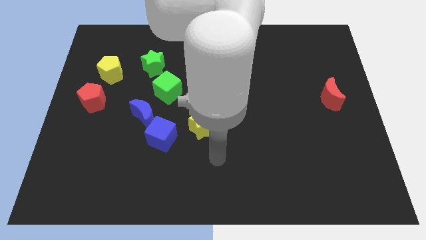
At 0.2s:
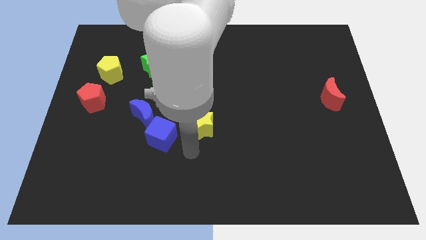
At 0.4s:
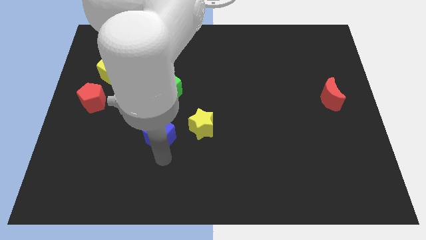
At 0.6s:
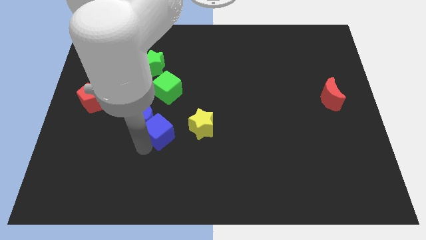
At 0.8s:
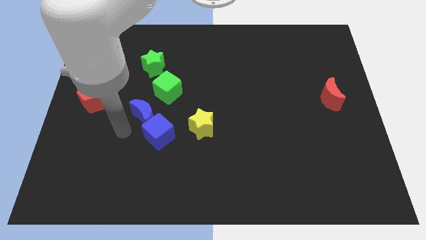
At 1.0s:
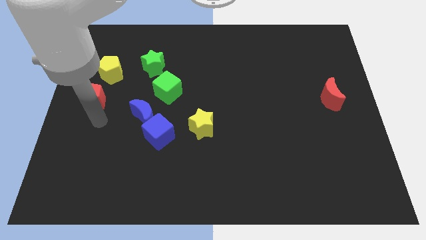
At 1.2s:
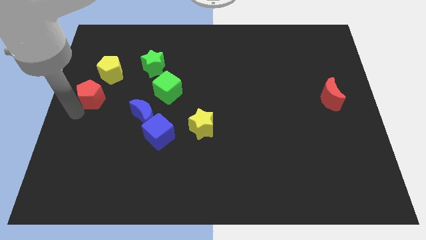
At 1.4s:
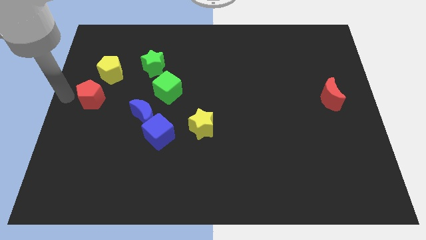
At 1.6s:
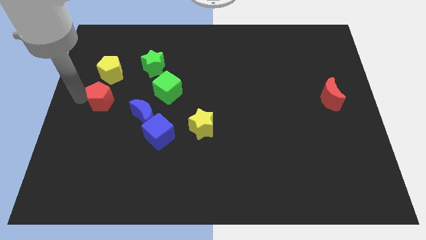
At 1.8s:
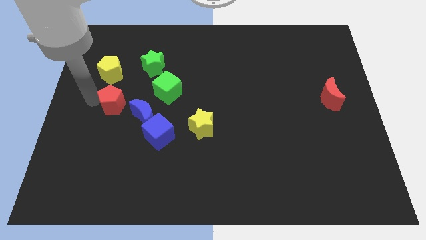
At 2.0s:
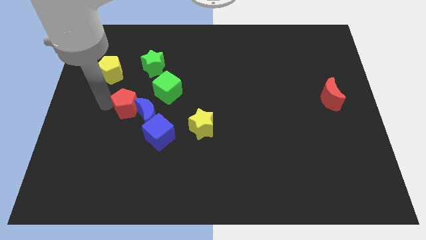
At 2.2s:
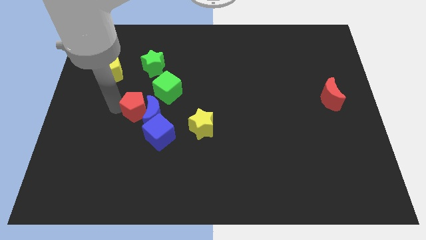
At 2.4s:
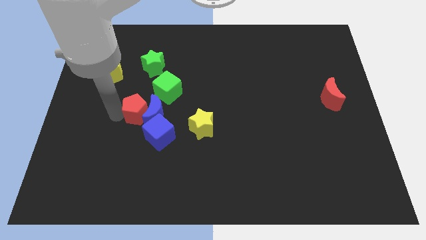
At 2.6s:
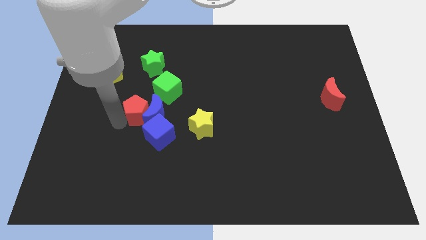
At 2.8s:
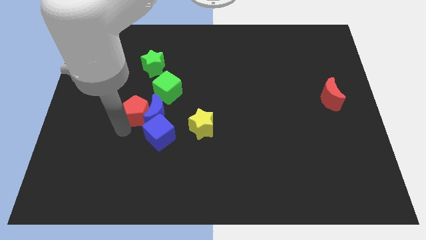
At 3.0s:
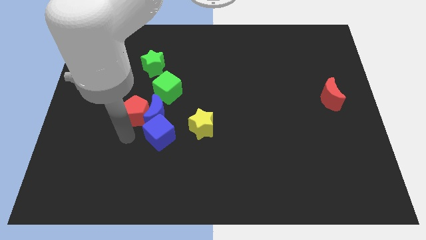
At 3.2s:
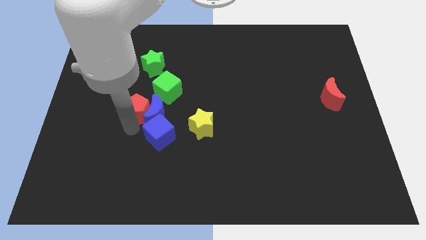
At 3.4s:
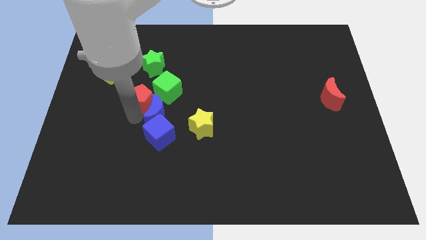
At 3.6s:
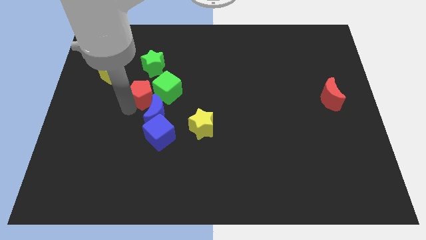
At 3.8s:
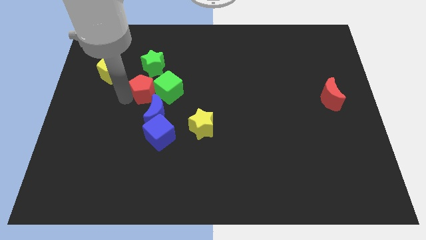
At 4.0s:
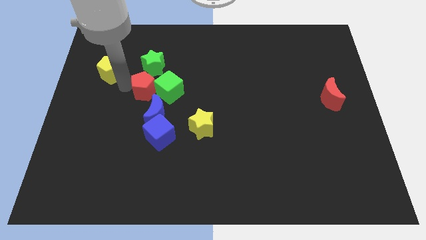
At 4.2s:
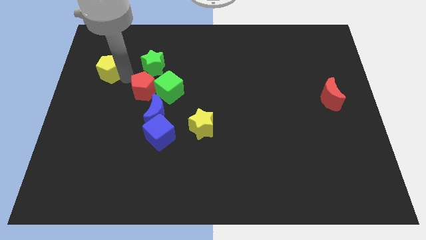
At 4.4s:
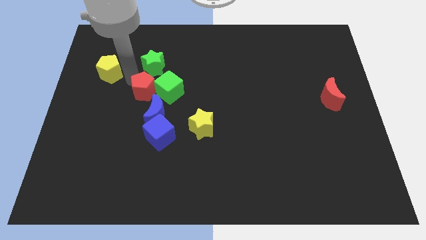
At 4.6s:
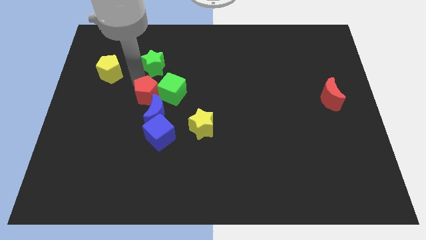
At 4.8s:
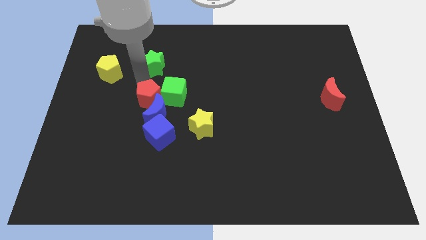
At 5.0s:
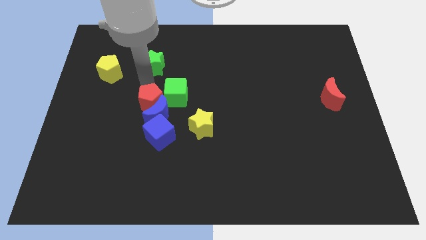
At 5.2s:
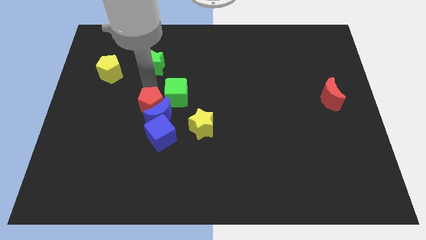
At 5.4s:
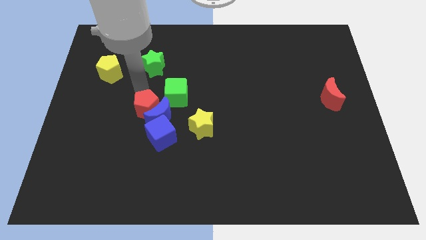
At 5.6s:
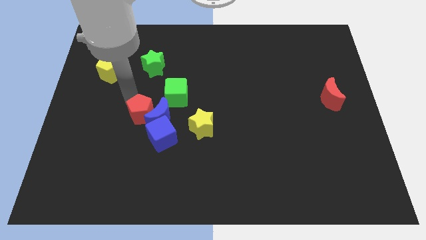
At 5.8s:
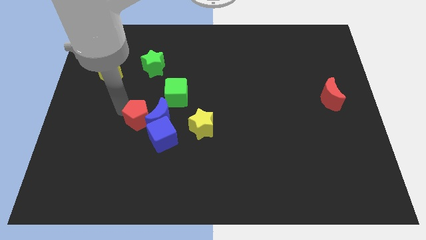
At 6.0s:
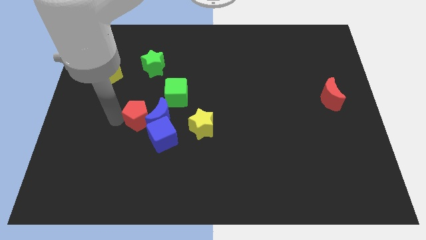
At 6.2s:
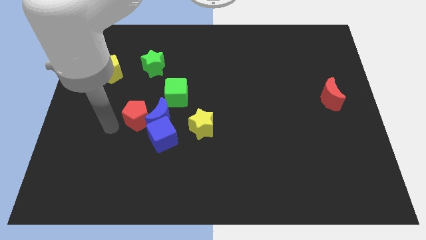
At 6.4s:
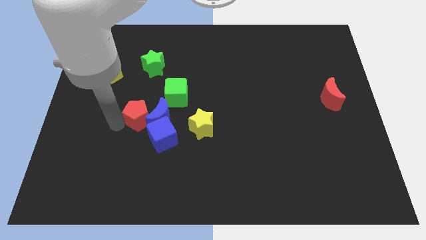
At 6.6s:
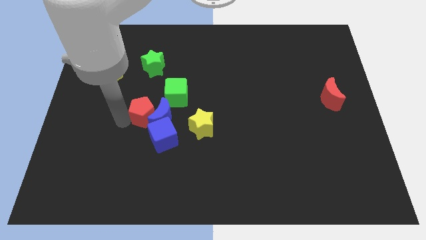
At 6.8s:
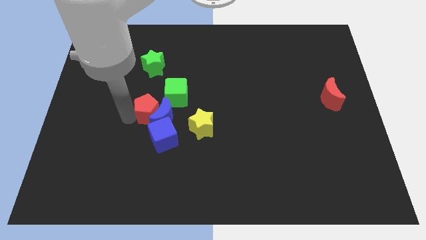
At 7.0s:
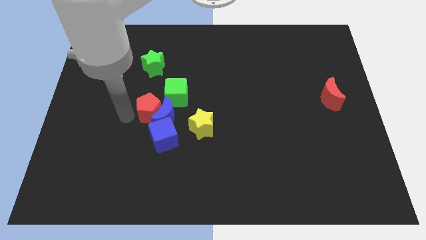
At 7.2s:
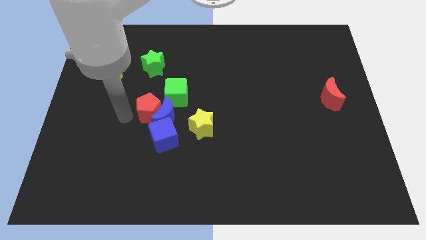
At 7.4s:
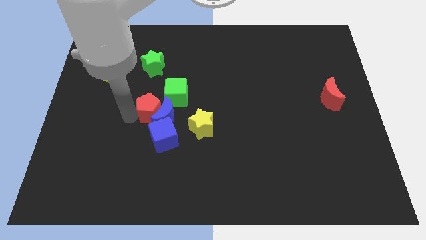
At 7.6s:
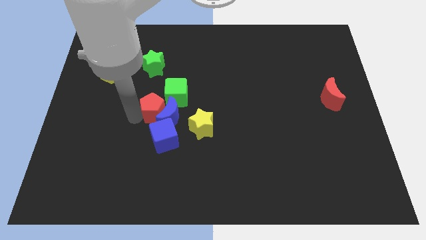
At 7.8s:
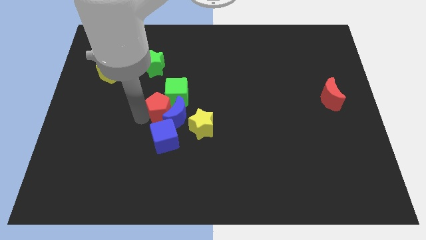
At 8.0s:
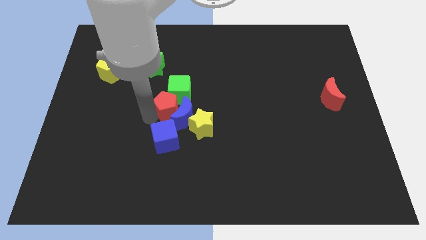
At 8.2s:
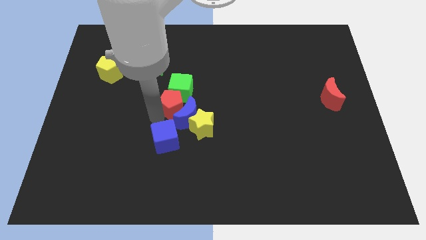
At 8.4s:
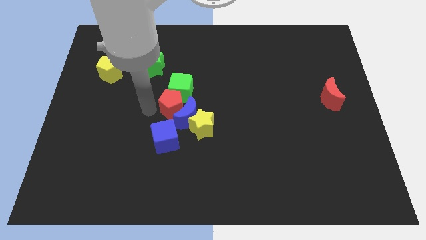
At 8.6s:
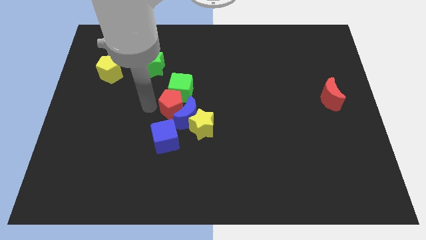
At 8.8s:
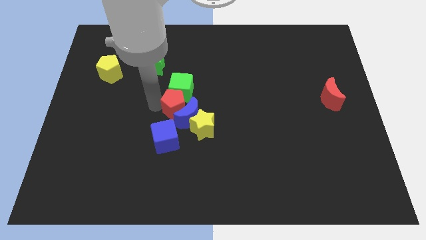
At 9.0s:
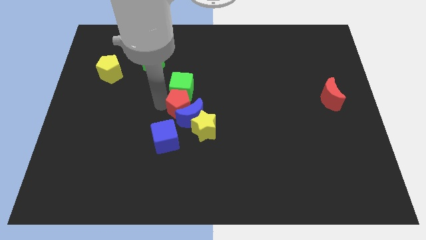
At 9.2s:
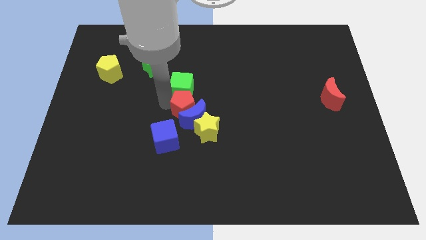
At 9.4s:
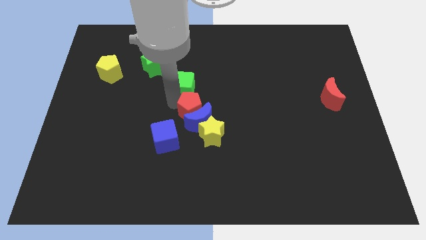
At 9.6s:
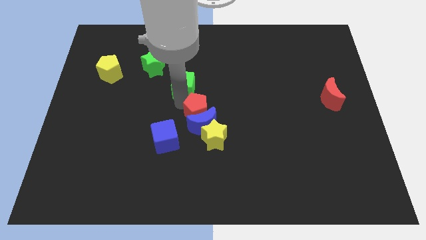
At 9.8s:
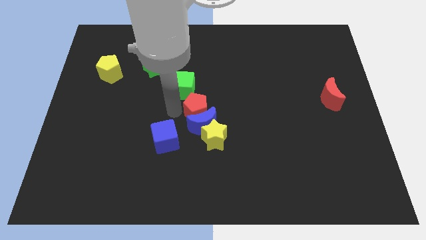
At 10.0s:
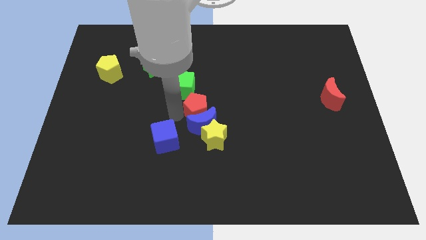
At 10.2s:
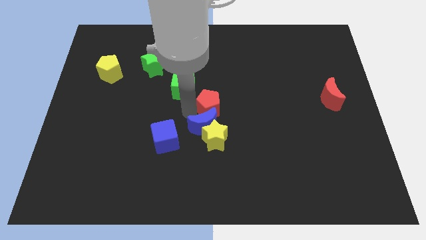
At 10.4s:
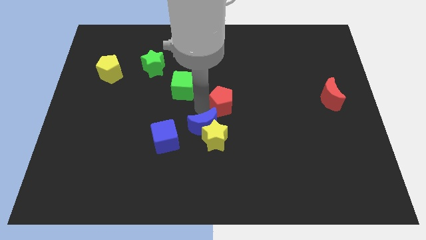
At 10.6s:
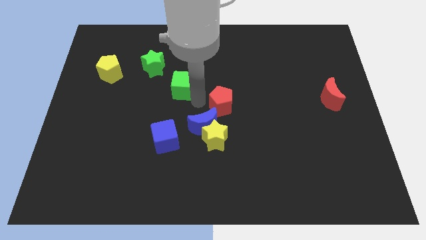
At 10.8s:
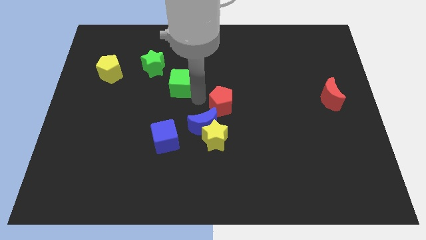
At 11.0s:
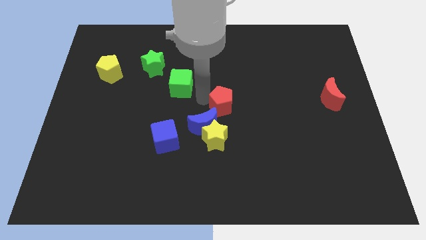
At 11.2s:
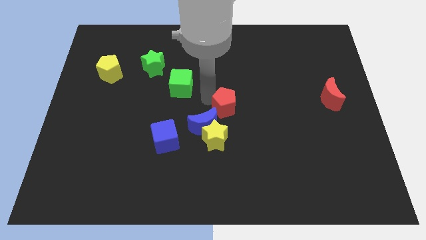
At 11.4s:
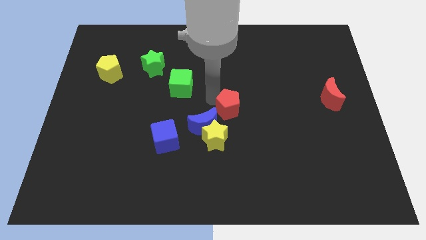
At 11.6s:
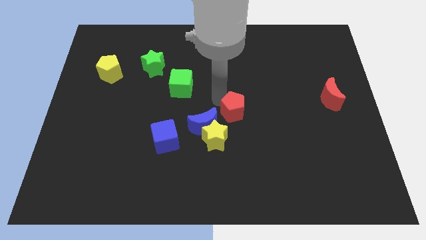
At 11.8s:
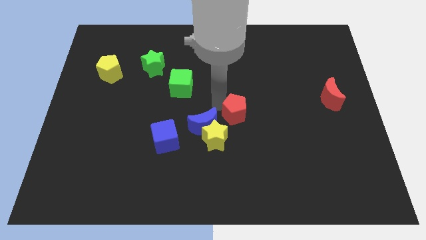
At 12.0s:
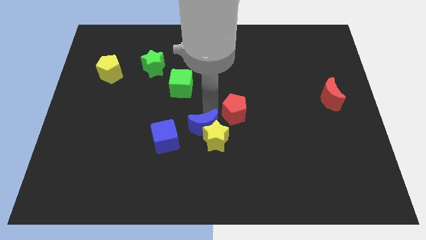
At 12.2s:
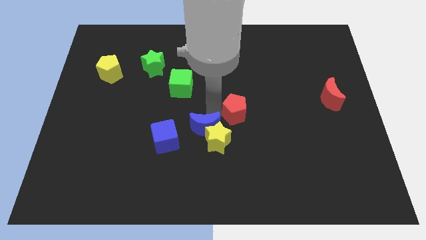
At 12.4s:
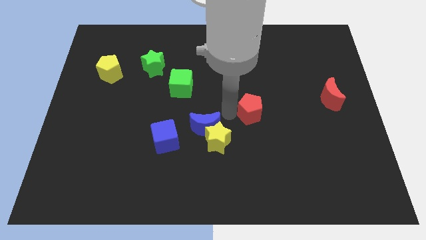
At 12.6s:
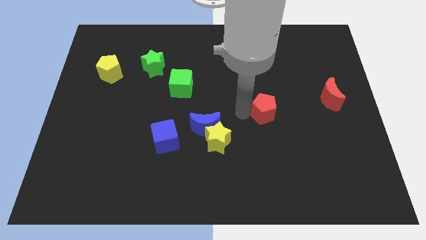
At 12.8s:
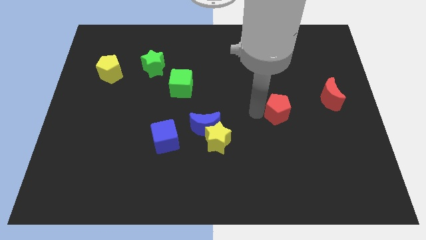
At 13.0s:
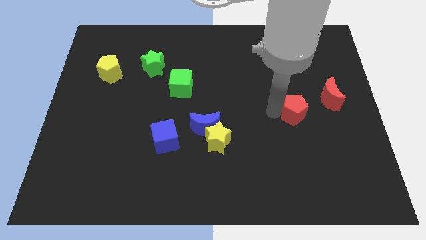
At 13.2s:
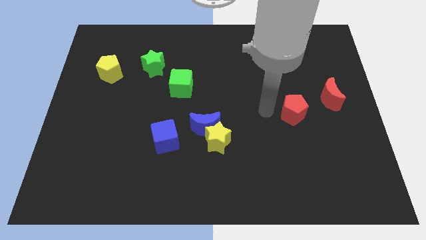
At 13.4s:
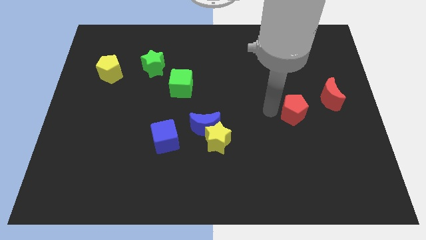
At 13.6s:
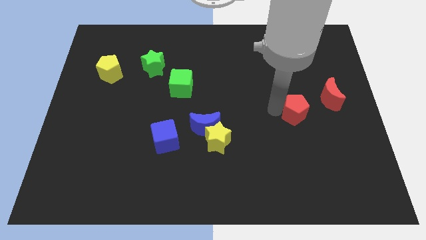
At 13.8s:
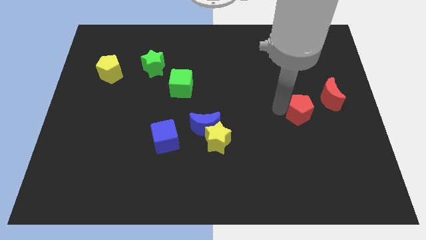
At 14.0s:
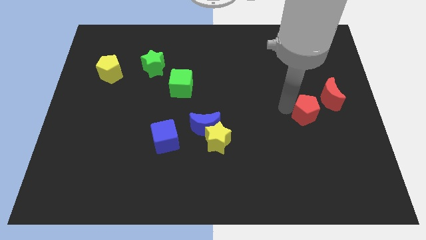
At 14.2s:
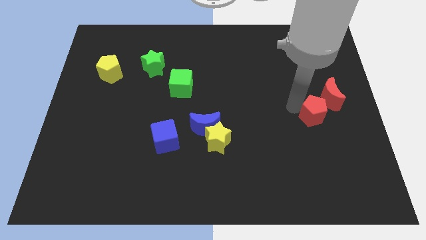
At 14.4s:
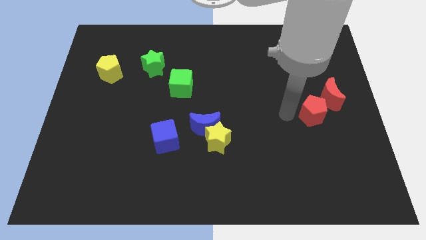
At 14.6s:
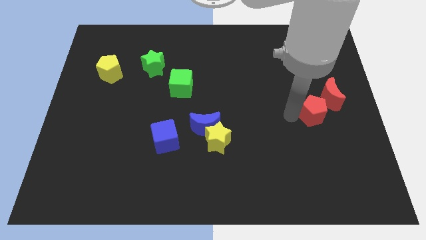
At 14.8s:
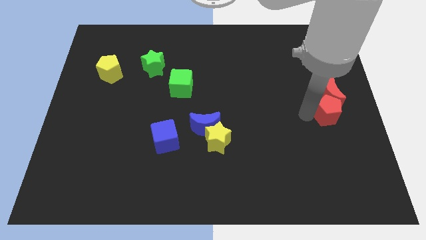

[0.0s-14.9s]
put the red pentagon to the right side
